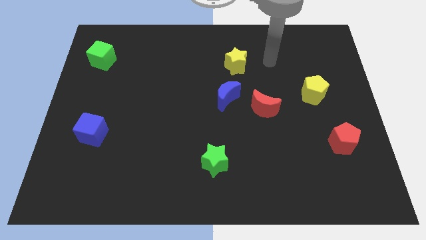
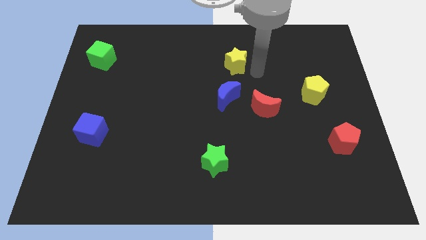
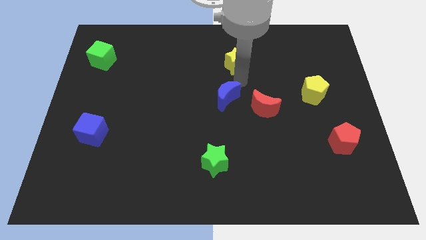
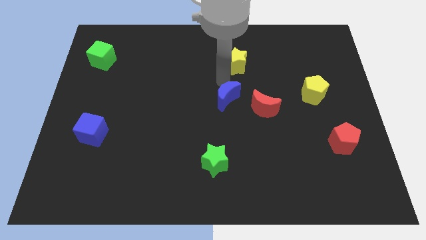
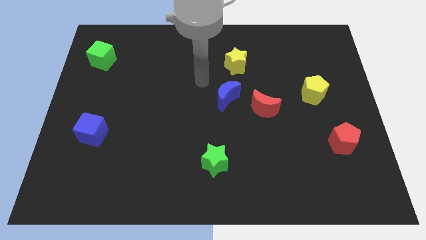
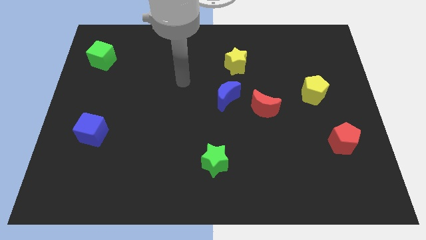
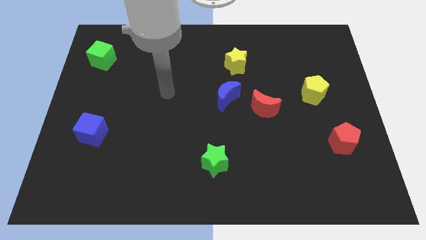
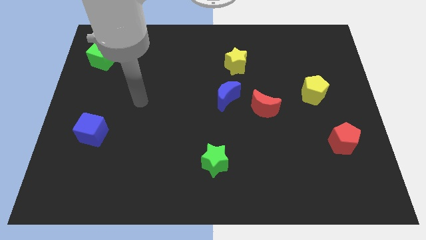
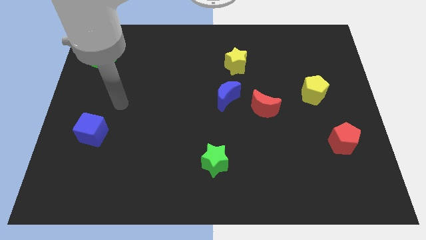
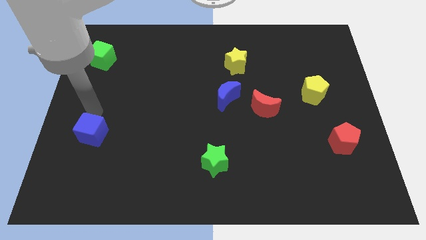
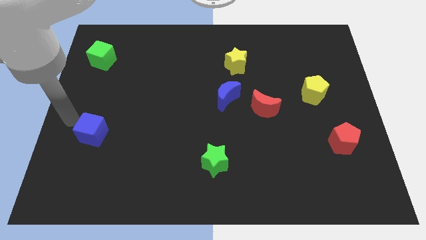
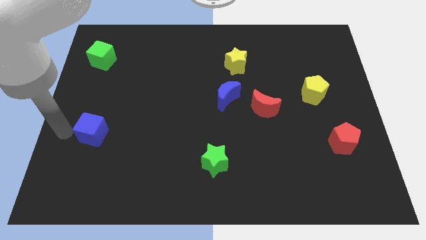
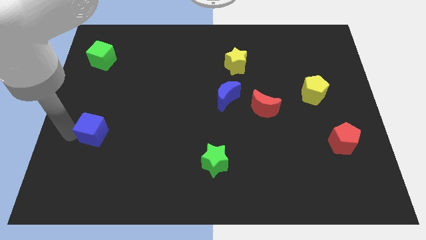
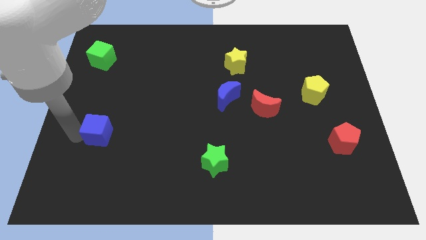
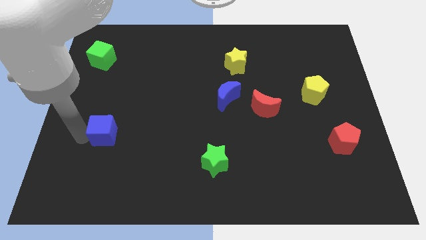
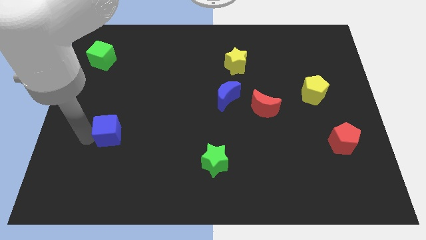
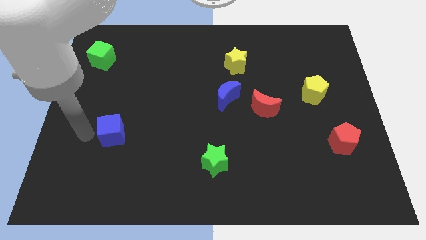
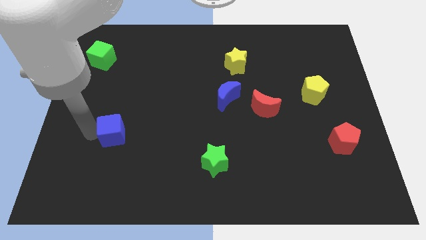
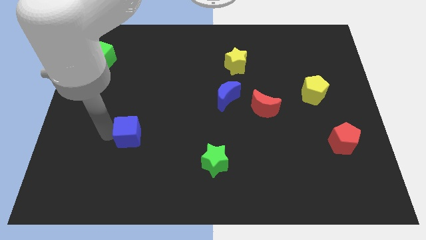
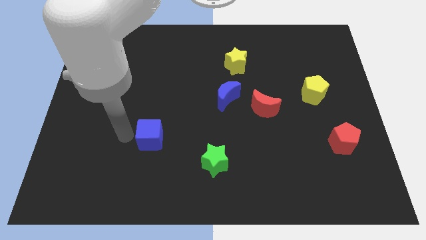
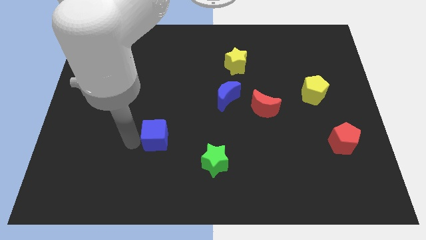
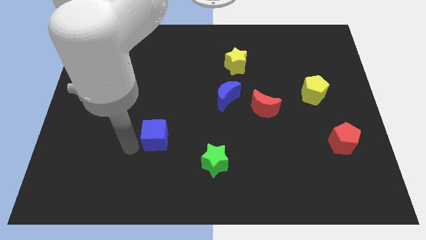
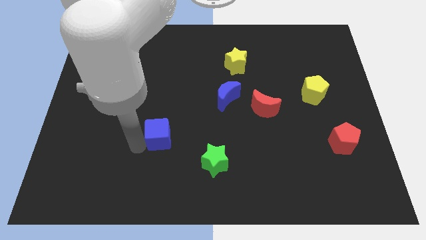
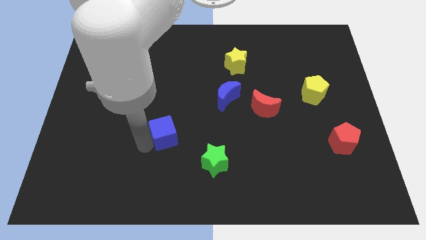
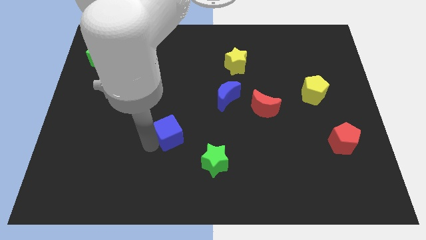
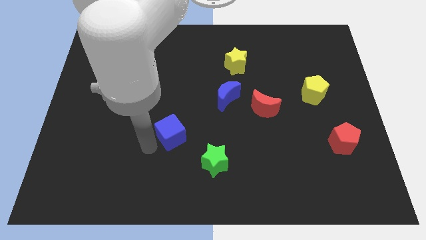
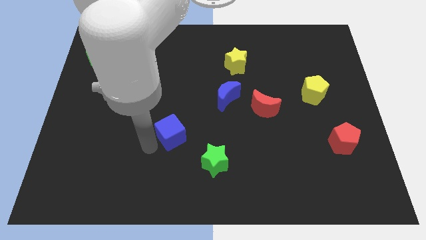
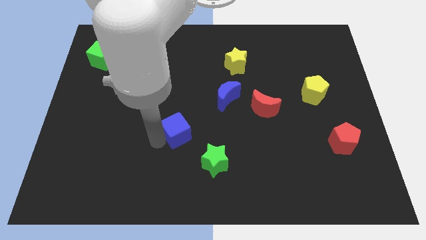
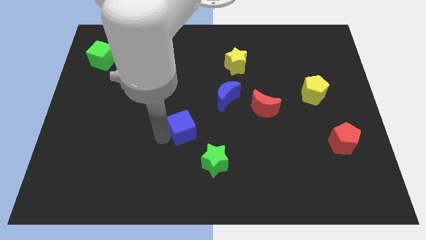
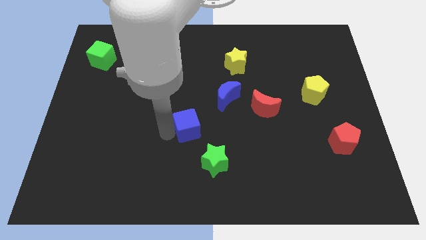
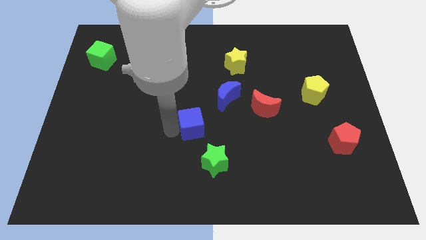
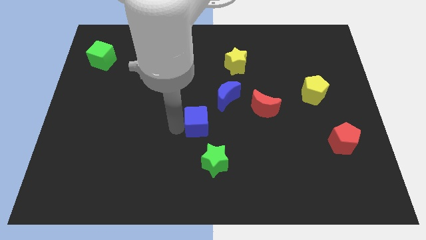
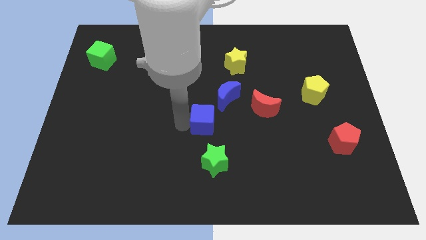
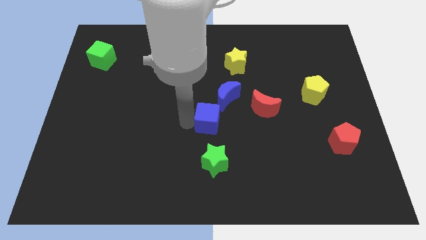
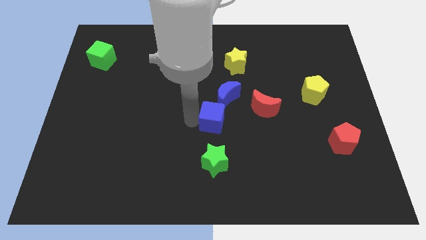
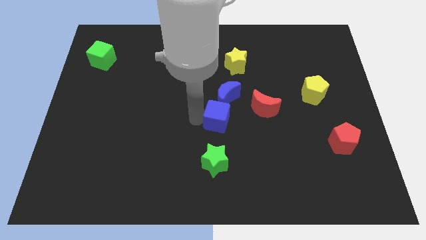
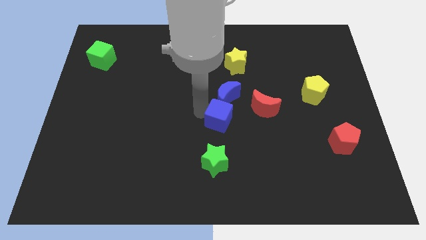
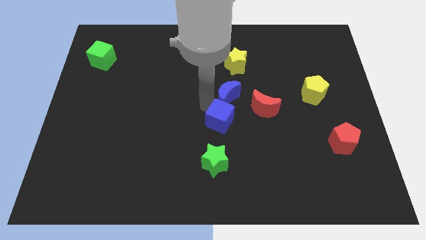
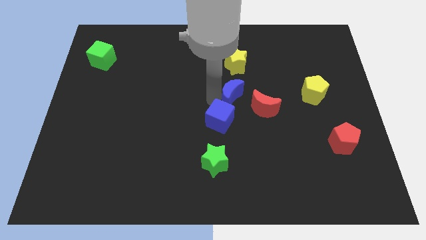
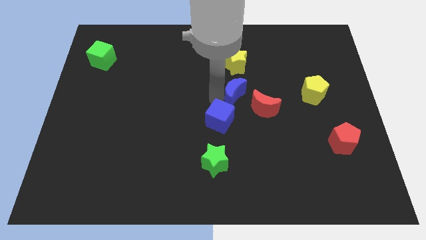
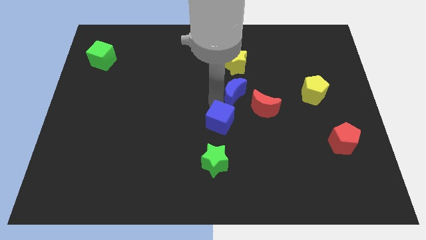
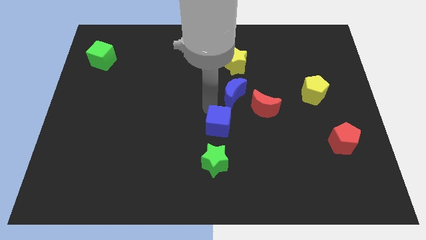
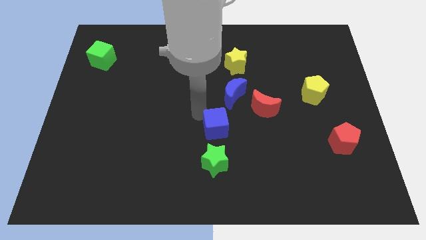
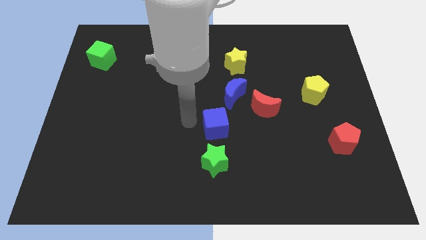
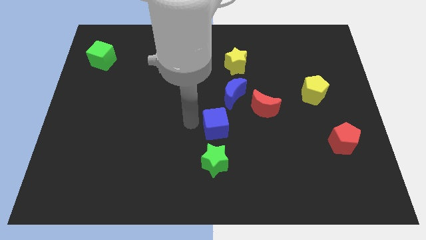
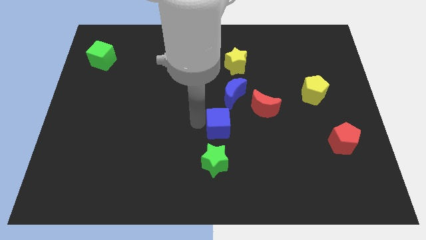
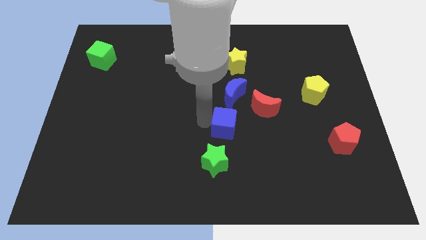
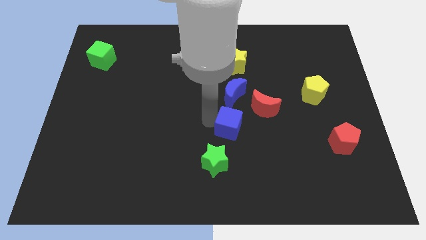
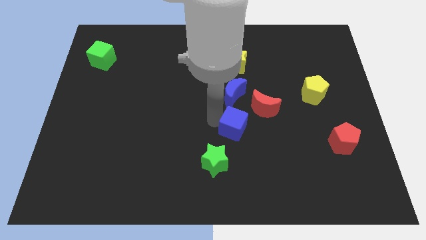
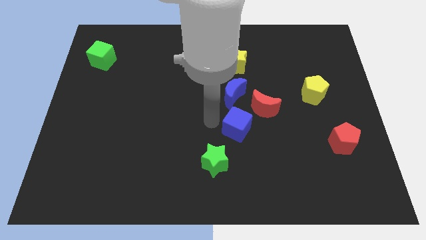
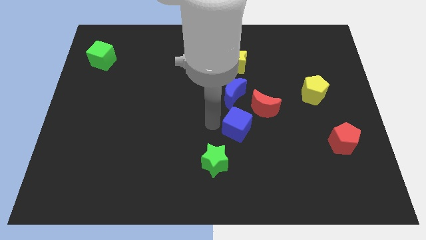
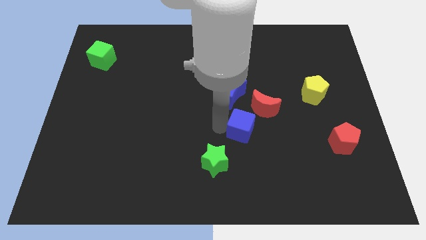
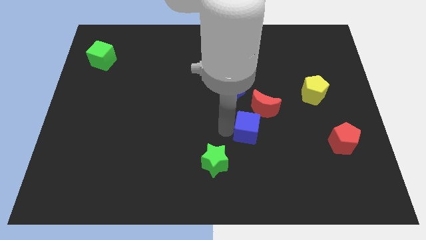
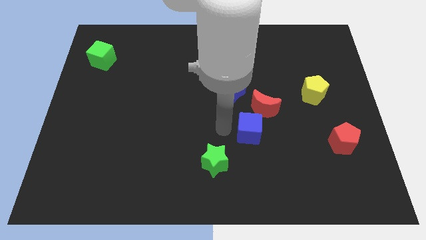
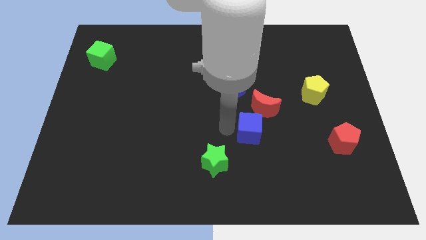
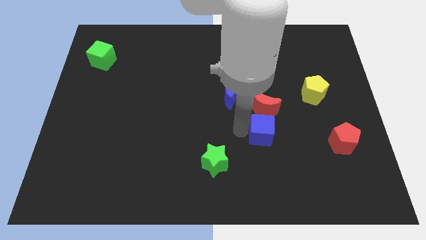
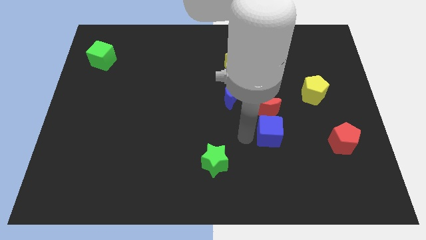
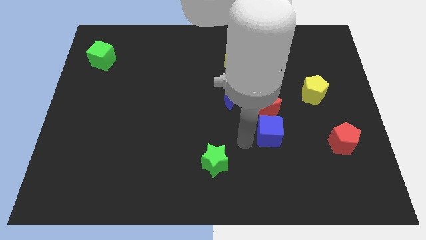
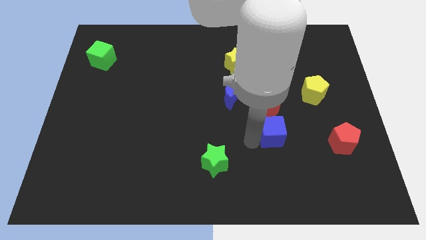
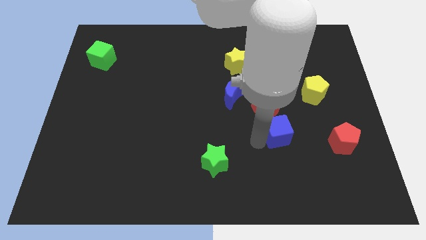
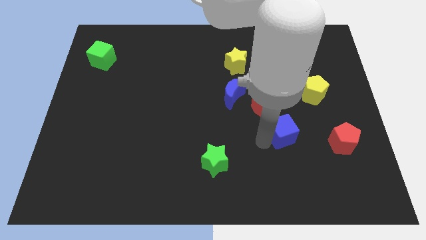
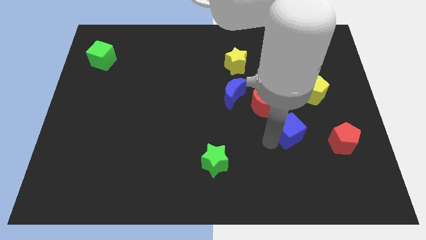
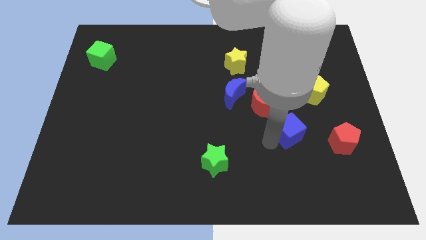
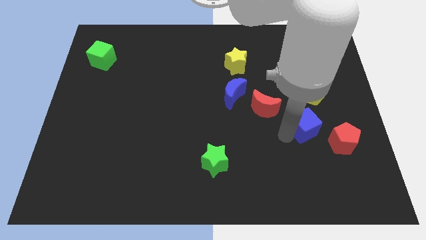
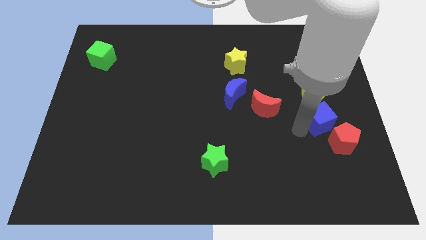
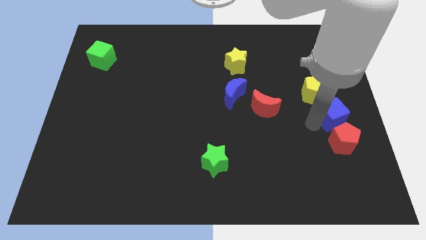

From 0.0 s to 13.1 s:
slide the blue cube to the right side of the board
